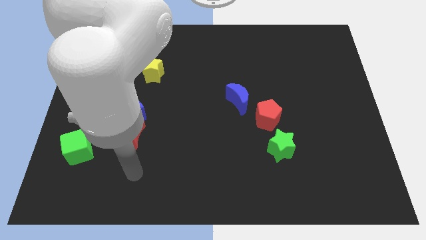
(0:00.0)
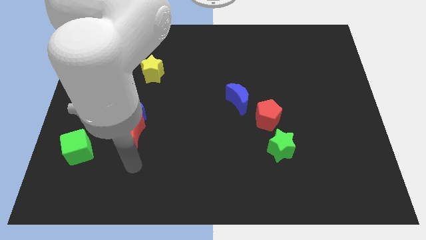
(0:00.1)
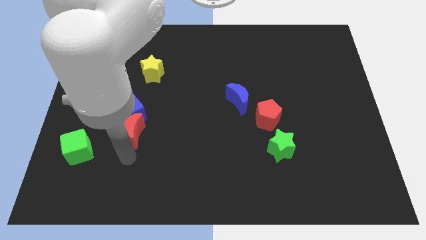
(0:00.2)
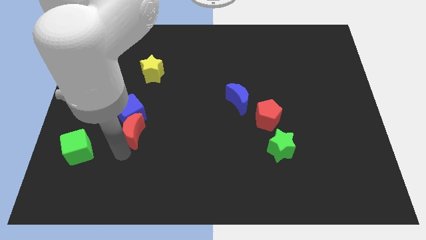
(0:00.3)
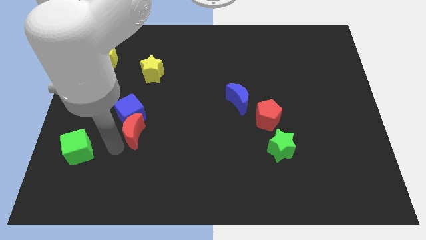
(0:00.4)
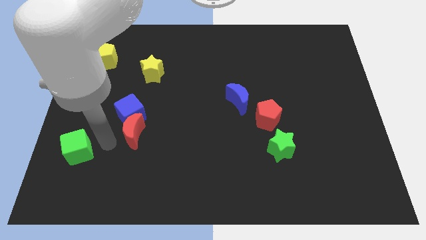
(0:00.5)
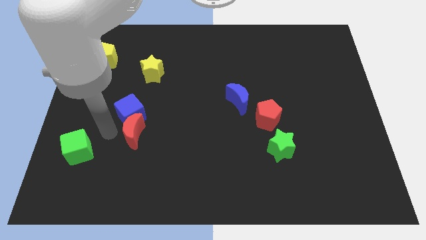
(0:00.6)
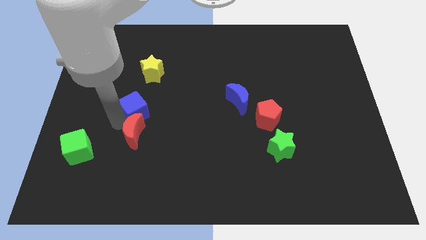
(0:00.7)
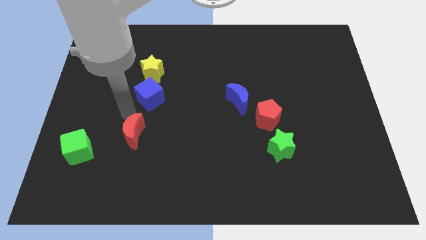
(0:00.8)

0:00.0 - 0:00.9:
move the red moon away from the blue cube

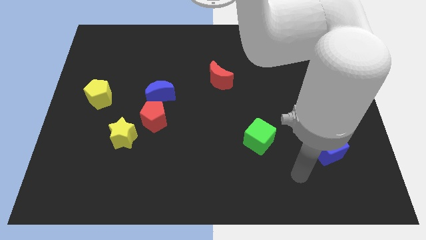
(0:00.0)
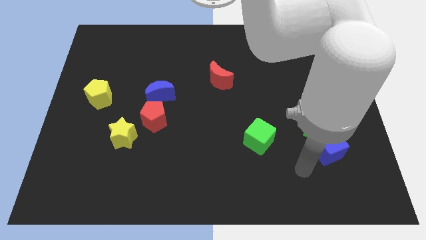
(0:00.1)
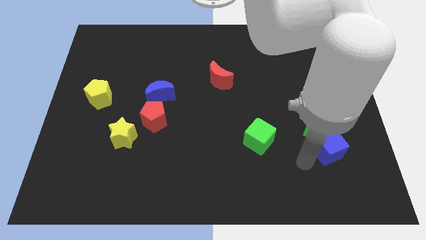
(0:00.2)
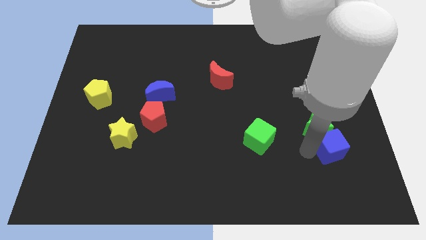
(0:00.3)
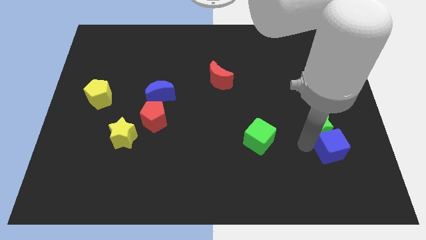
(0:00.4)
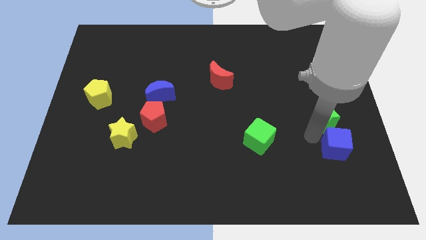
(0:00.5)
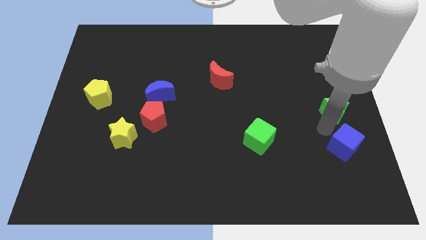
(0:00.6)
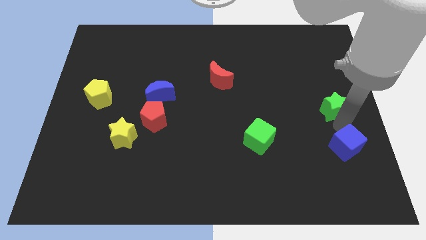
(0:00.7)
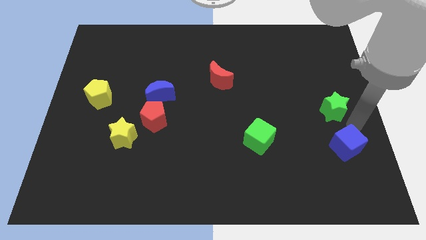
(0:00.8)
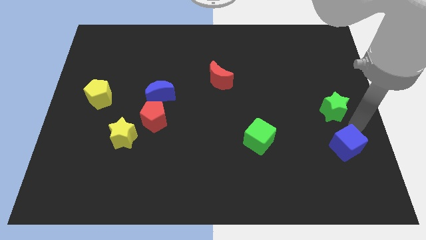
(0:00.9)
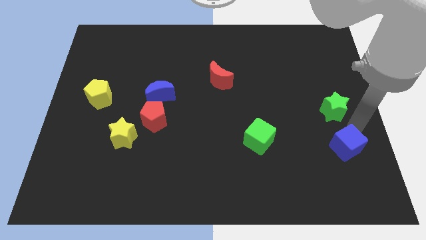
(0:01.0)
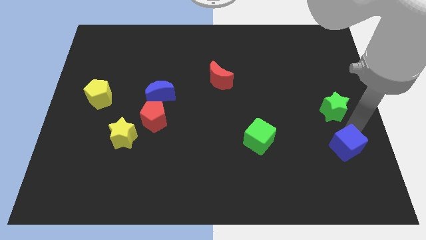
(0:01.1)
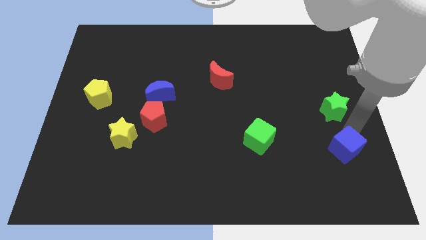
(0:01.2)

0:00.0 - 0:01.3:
separate the blue cube from the green star

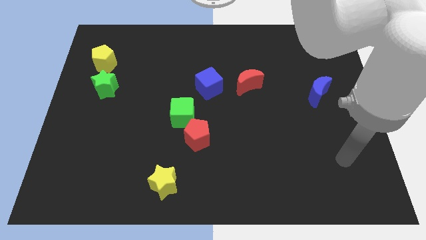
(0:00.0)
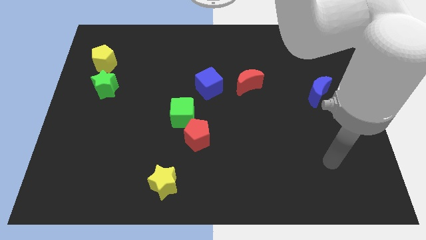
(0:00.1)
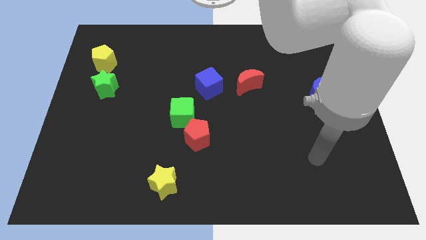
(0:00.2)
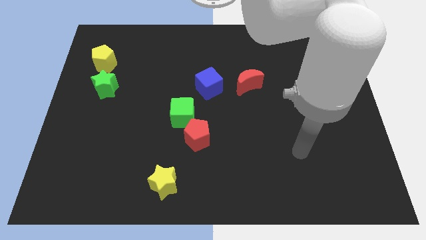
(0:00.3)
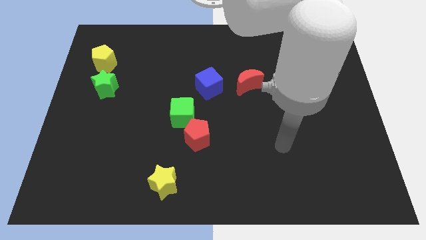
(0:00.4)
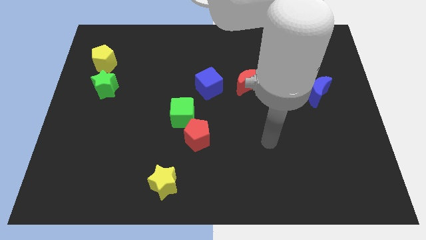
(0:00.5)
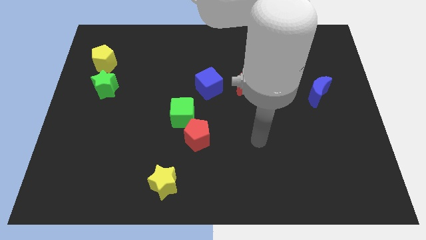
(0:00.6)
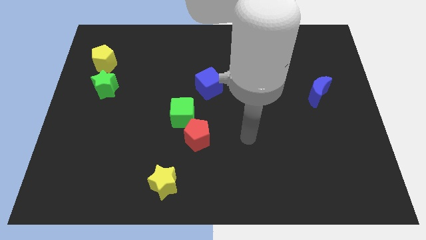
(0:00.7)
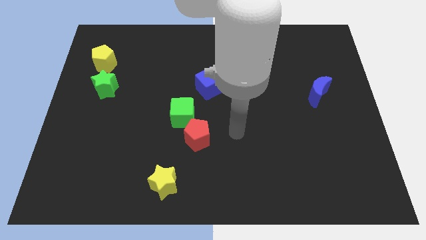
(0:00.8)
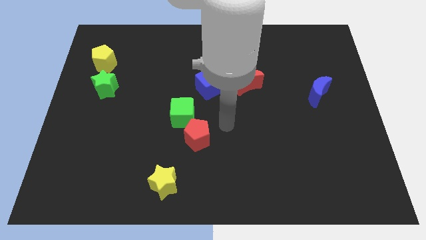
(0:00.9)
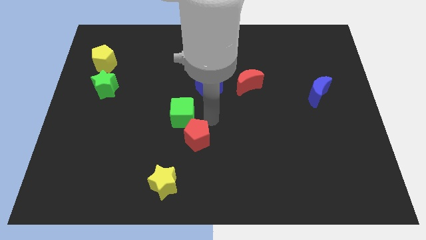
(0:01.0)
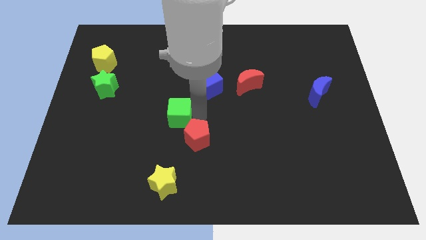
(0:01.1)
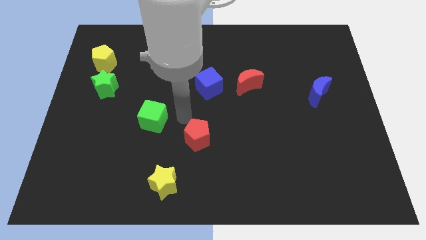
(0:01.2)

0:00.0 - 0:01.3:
move the red pentagon away from the green cube

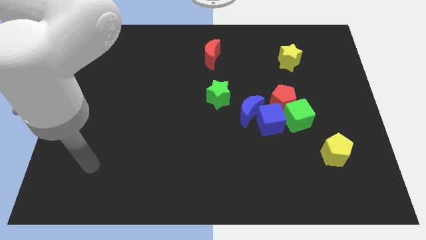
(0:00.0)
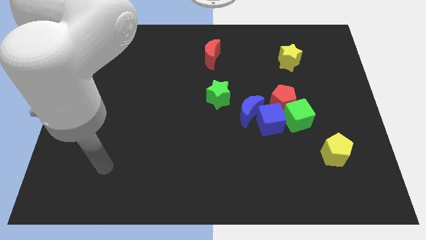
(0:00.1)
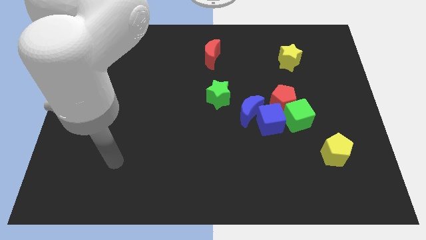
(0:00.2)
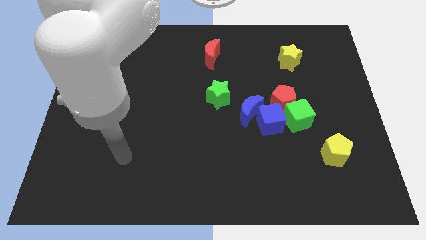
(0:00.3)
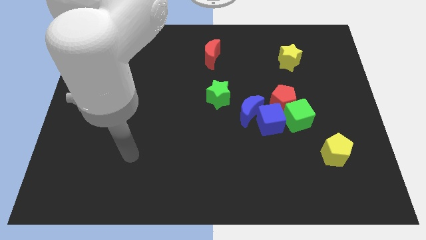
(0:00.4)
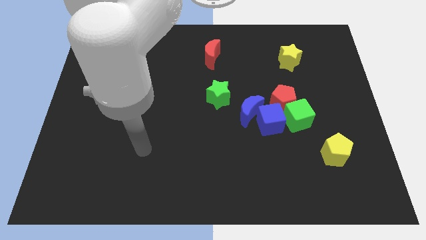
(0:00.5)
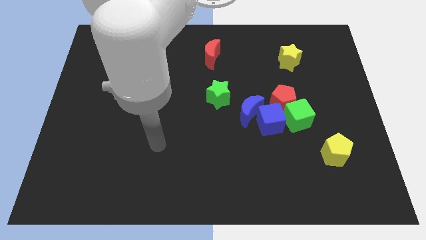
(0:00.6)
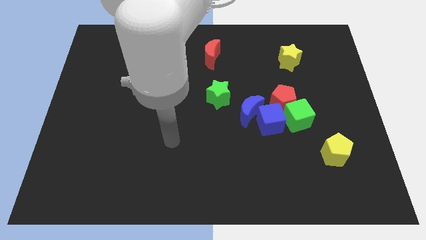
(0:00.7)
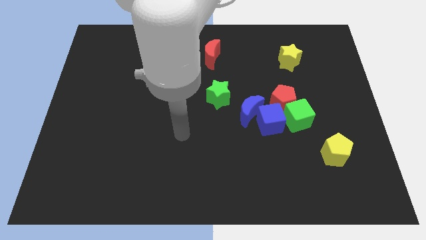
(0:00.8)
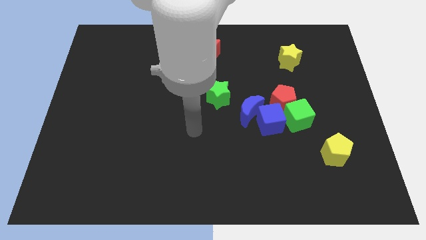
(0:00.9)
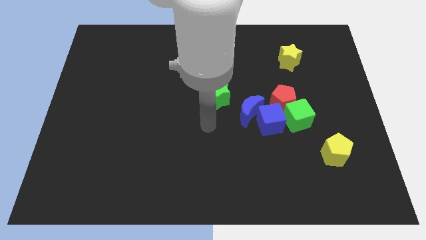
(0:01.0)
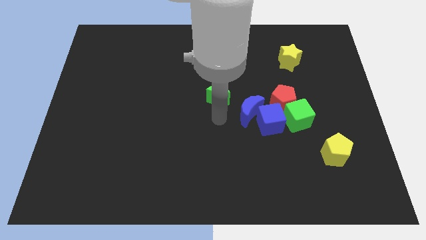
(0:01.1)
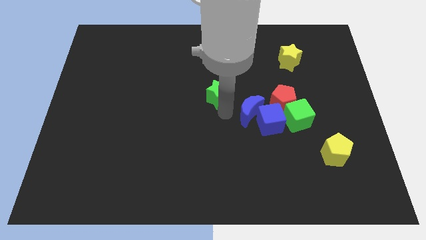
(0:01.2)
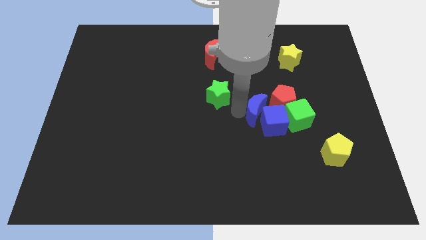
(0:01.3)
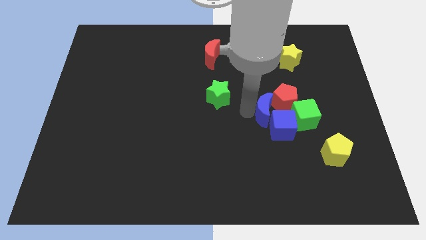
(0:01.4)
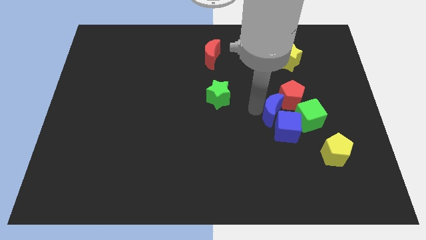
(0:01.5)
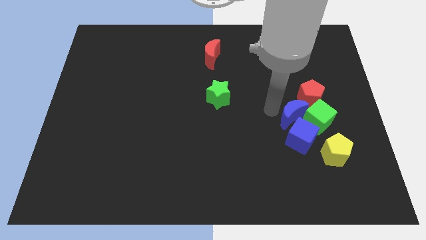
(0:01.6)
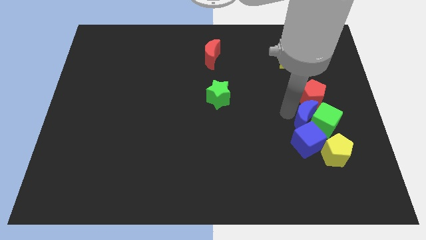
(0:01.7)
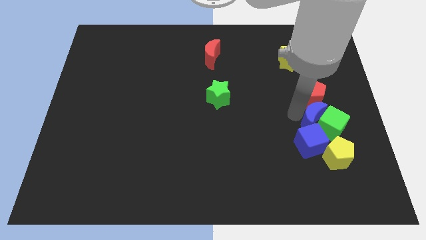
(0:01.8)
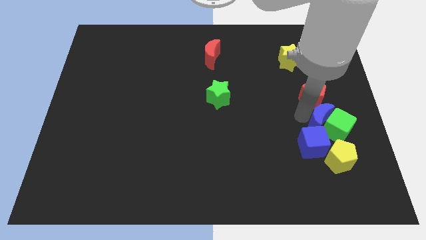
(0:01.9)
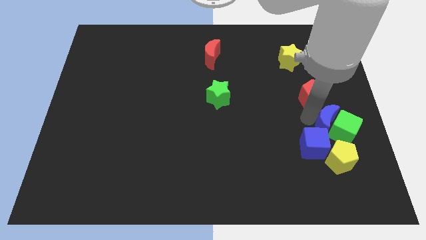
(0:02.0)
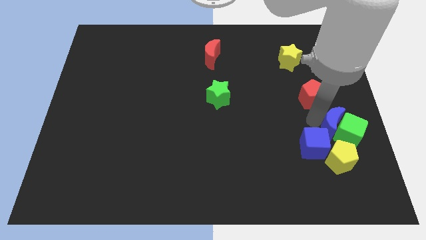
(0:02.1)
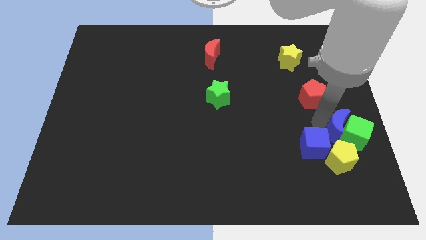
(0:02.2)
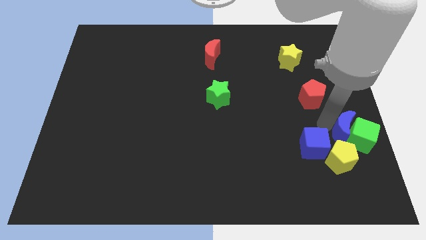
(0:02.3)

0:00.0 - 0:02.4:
pull the green cube apart from the red pentagon and blue cube

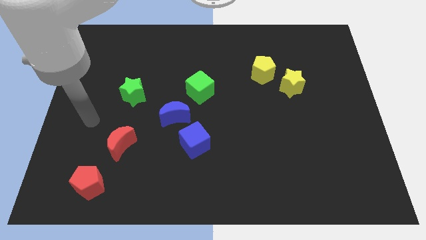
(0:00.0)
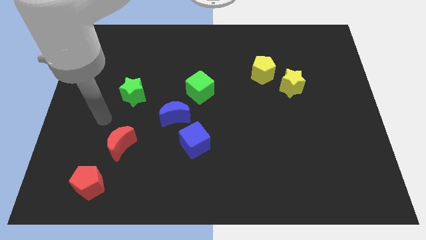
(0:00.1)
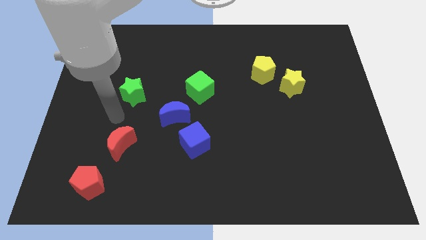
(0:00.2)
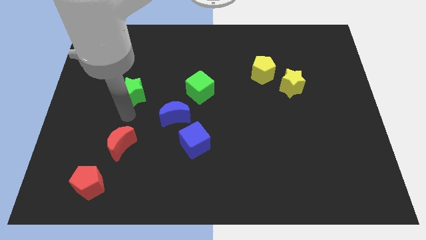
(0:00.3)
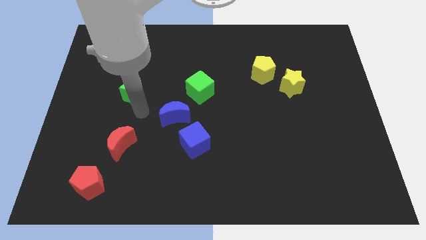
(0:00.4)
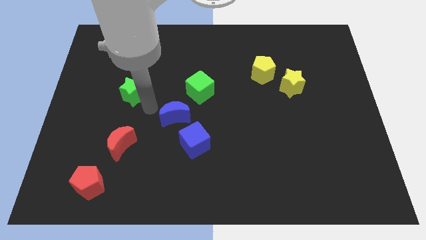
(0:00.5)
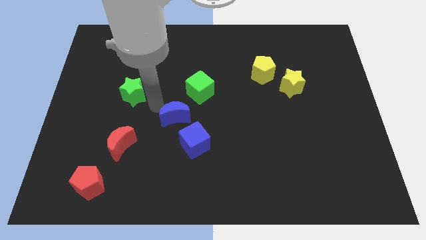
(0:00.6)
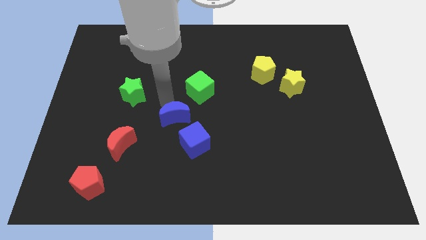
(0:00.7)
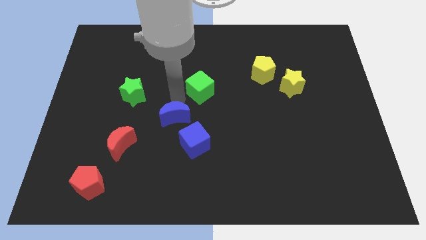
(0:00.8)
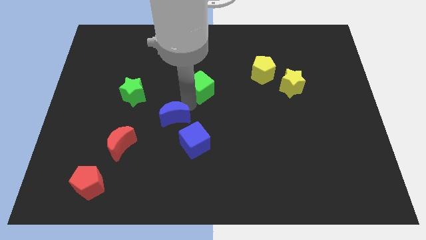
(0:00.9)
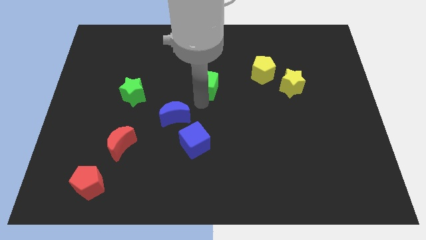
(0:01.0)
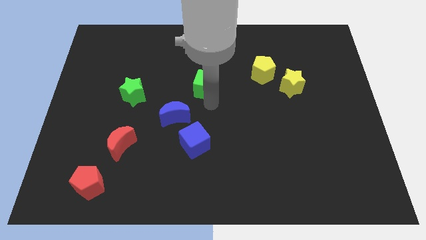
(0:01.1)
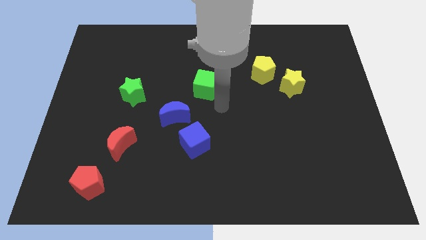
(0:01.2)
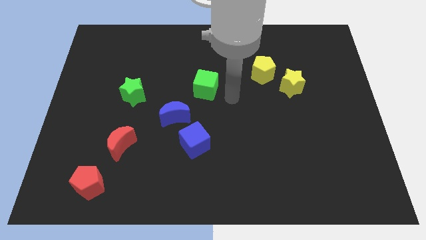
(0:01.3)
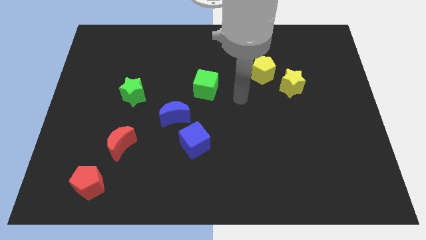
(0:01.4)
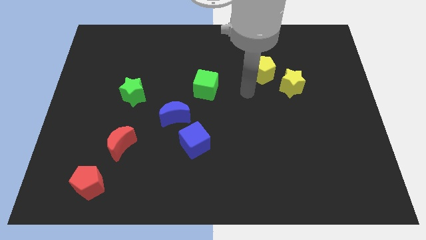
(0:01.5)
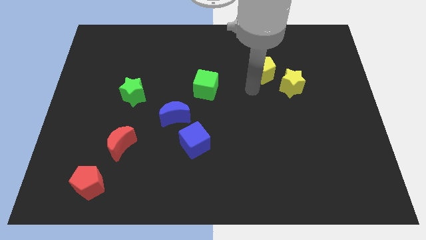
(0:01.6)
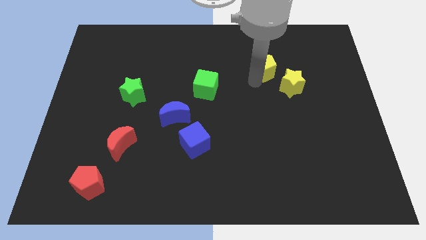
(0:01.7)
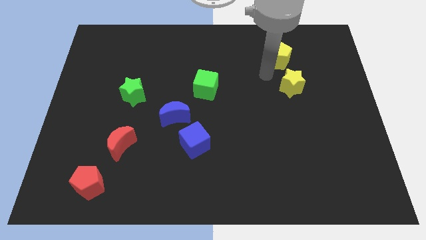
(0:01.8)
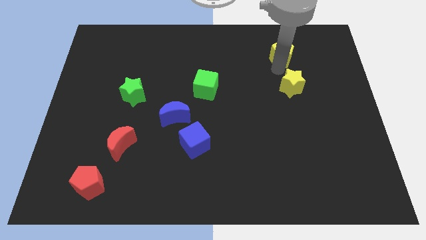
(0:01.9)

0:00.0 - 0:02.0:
separate the yellow star from the yellow pentagon

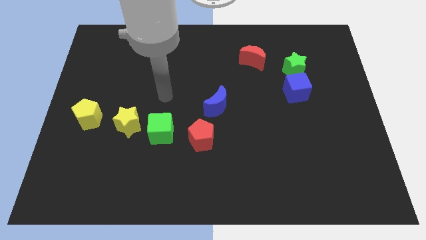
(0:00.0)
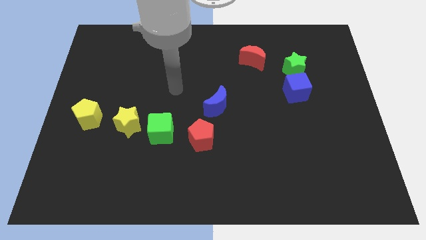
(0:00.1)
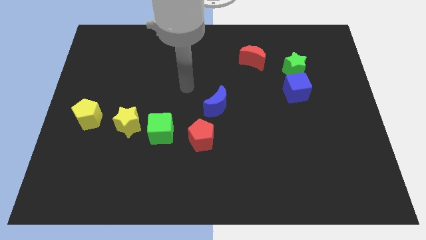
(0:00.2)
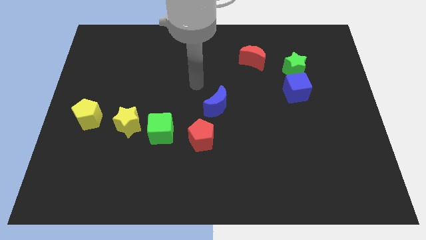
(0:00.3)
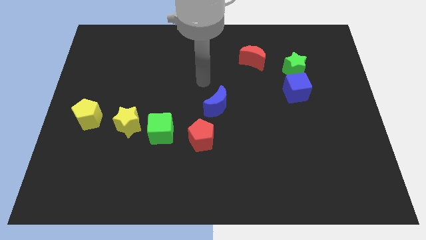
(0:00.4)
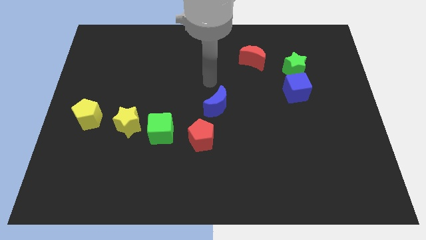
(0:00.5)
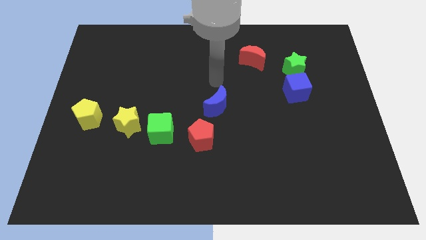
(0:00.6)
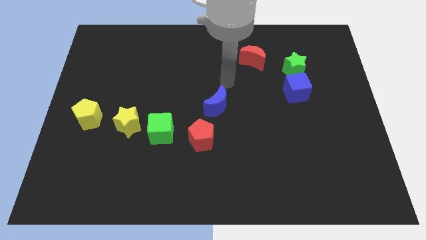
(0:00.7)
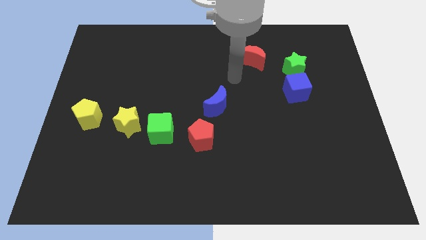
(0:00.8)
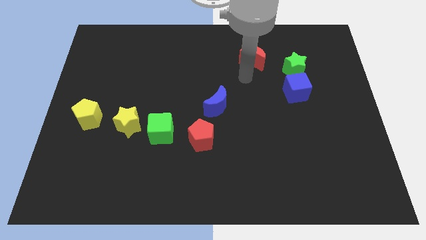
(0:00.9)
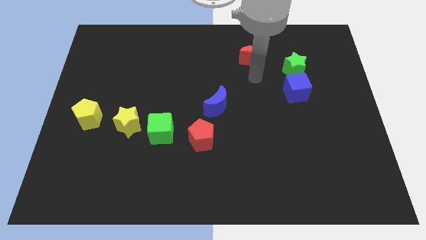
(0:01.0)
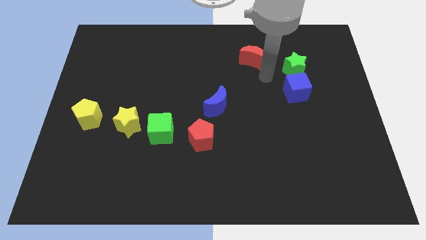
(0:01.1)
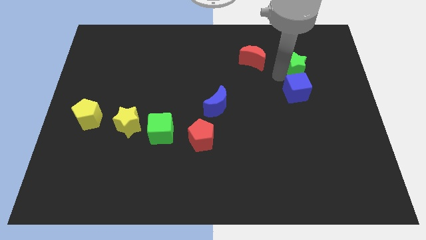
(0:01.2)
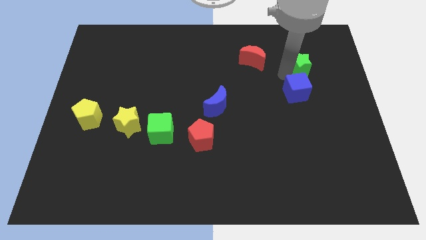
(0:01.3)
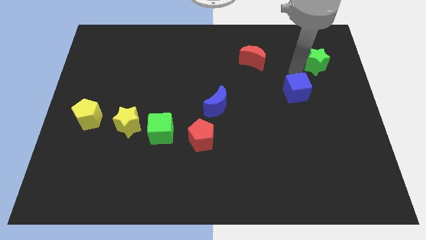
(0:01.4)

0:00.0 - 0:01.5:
pull the blue cube apart from the green star
